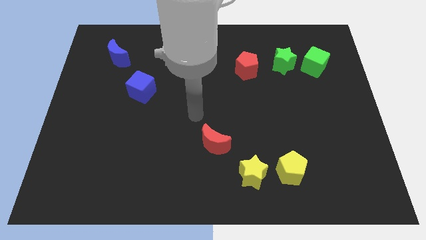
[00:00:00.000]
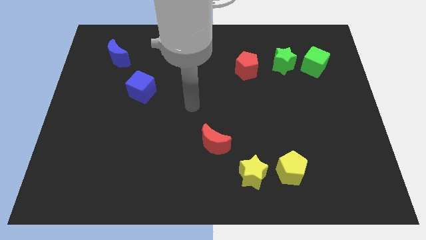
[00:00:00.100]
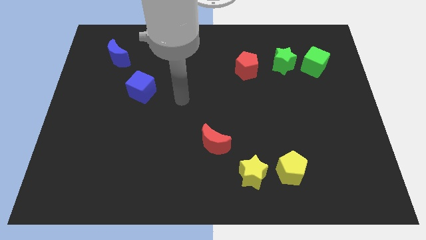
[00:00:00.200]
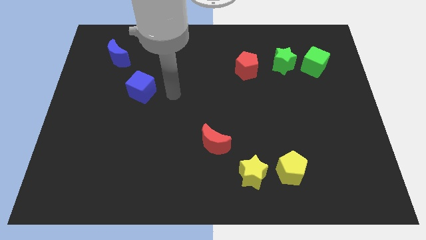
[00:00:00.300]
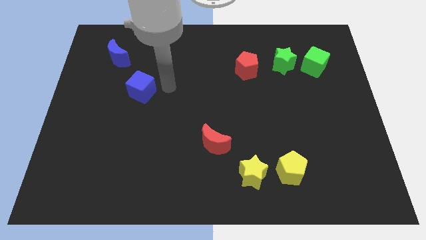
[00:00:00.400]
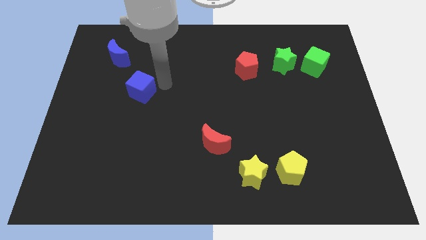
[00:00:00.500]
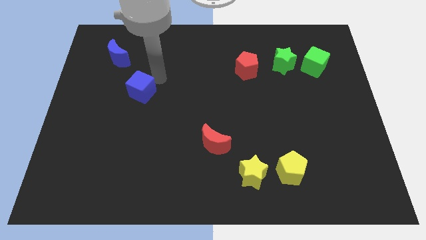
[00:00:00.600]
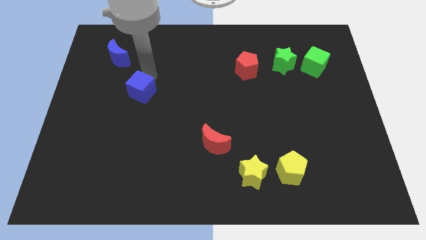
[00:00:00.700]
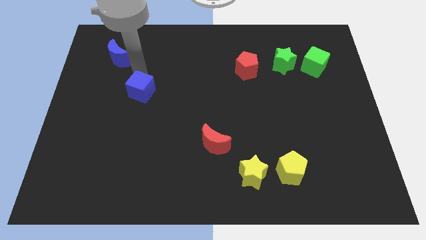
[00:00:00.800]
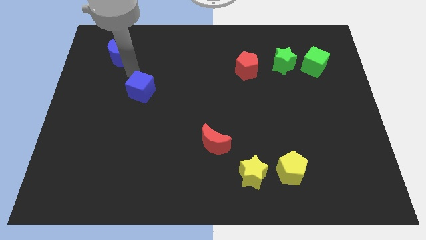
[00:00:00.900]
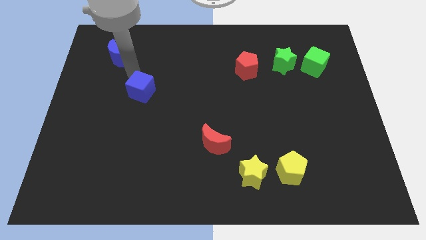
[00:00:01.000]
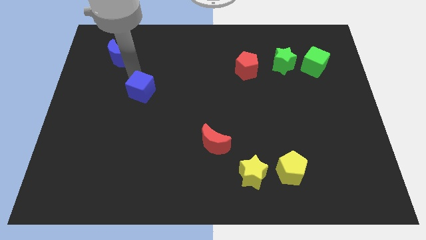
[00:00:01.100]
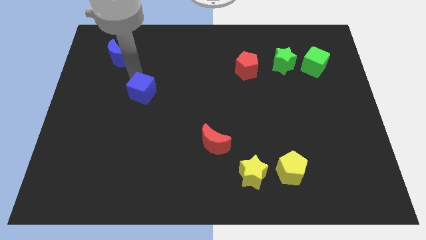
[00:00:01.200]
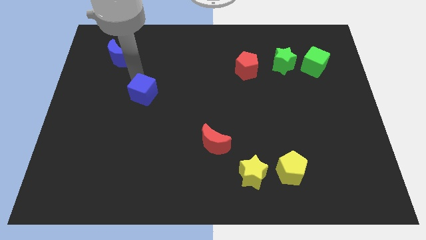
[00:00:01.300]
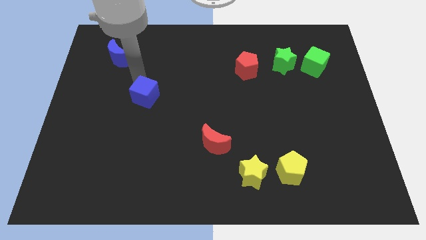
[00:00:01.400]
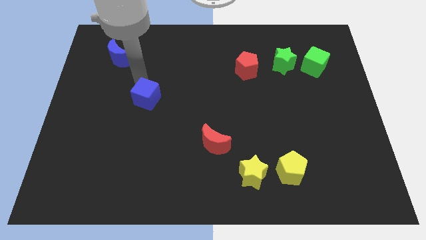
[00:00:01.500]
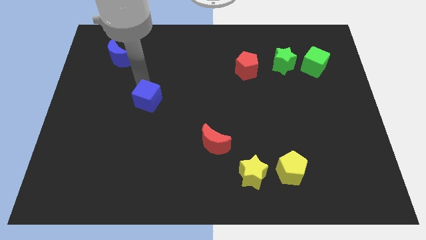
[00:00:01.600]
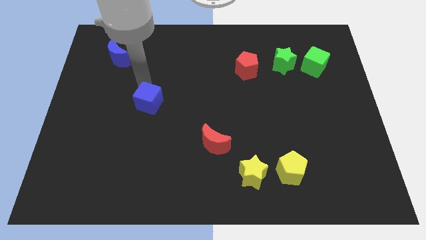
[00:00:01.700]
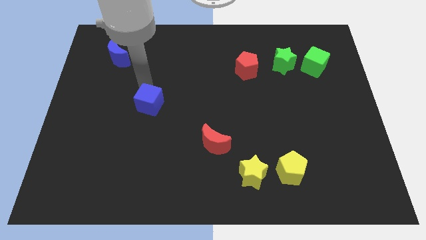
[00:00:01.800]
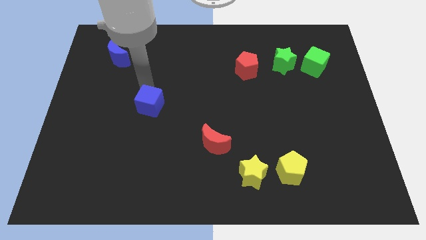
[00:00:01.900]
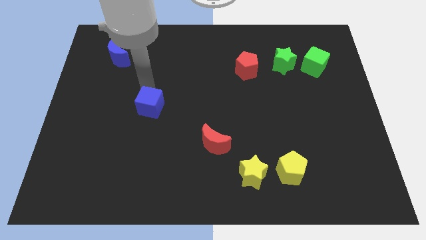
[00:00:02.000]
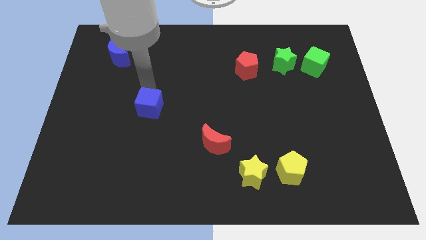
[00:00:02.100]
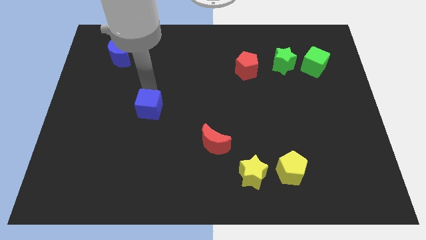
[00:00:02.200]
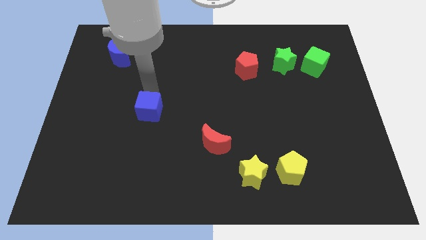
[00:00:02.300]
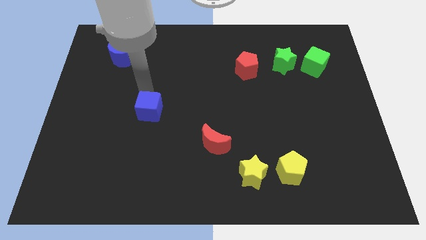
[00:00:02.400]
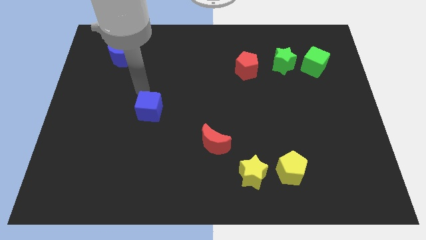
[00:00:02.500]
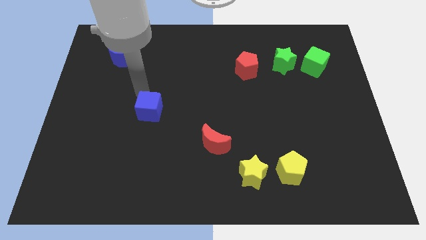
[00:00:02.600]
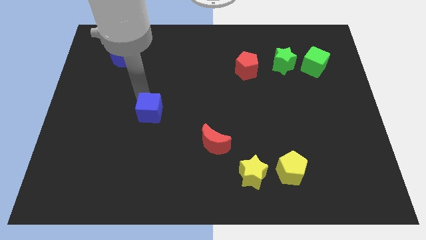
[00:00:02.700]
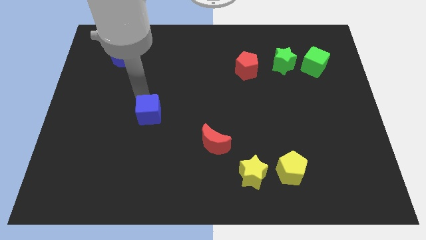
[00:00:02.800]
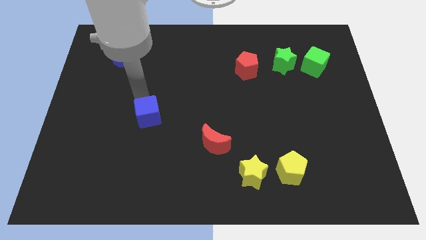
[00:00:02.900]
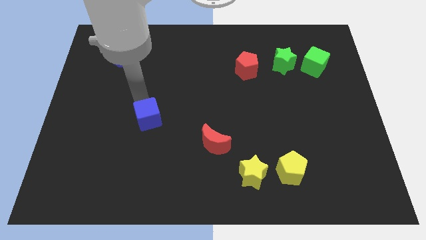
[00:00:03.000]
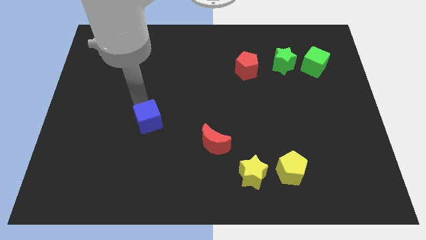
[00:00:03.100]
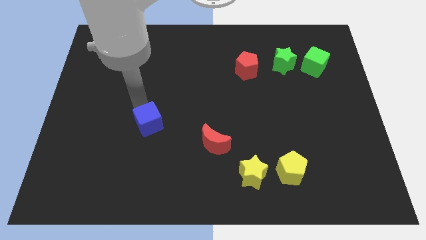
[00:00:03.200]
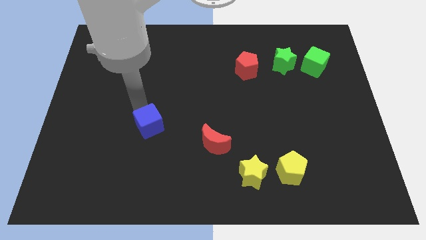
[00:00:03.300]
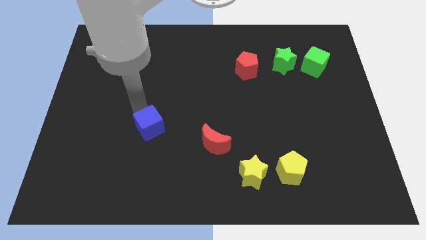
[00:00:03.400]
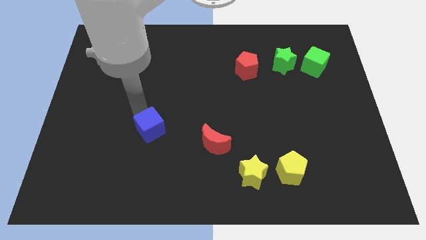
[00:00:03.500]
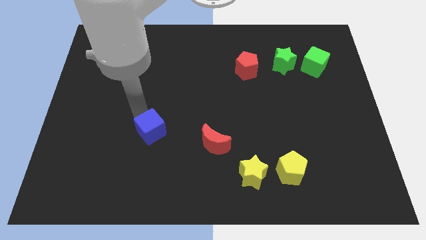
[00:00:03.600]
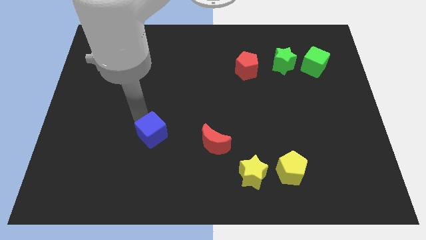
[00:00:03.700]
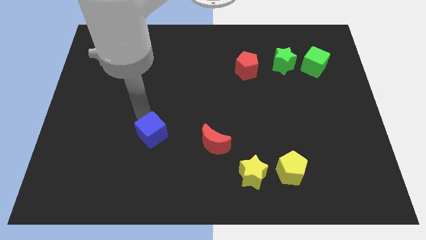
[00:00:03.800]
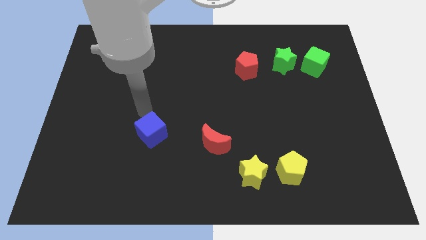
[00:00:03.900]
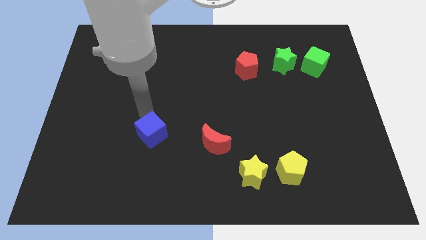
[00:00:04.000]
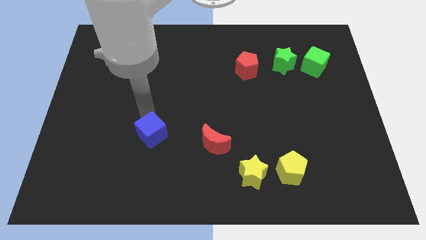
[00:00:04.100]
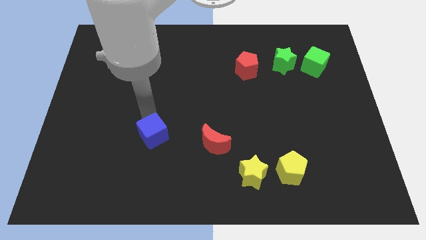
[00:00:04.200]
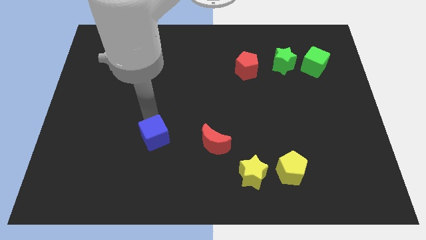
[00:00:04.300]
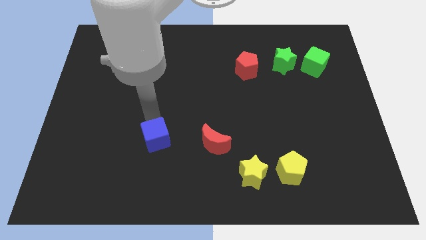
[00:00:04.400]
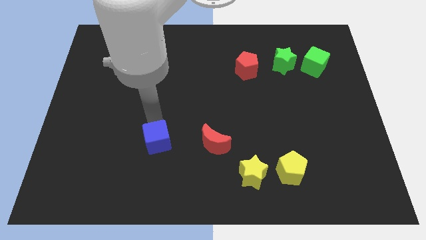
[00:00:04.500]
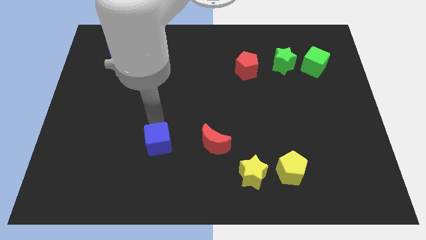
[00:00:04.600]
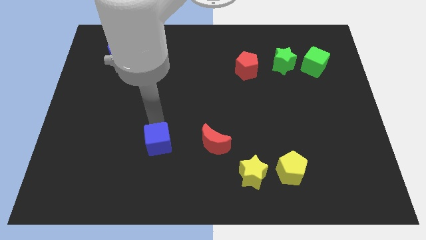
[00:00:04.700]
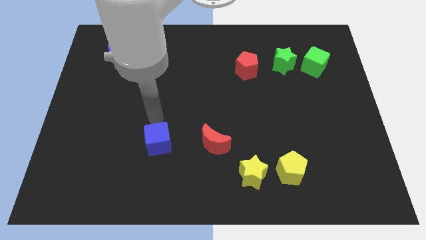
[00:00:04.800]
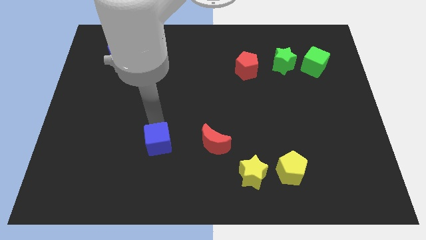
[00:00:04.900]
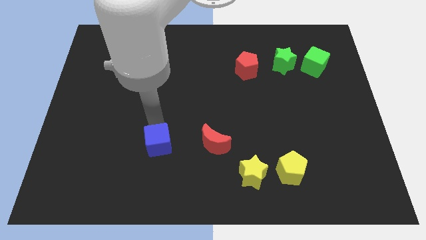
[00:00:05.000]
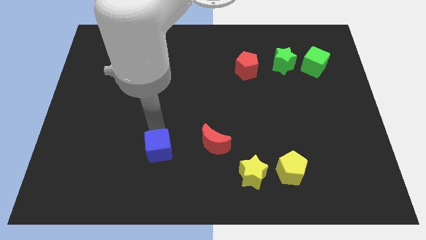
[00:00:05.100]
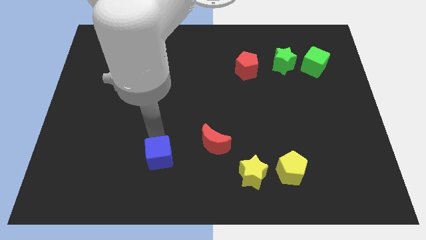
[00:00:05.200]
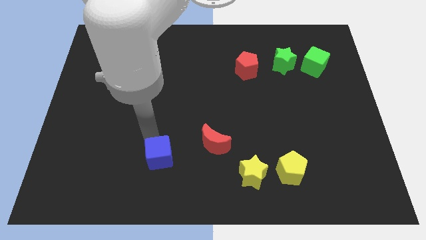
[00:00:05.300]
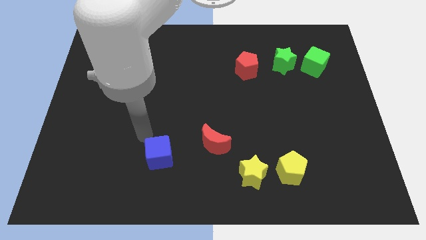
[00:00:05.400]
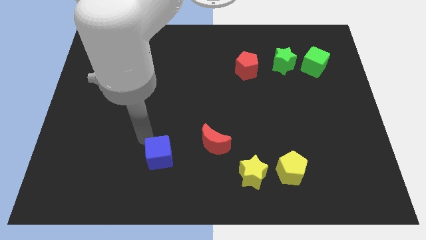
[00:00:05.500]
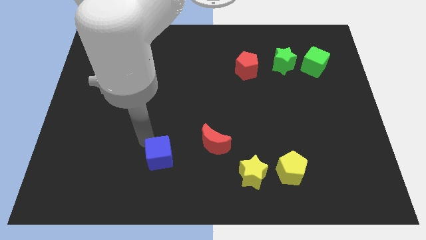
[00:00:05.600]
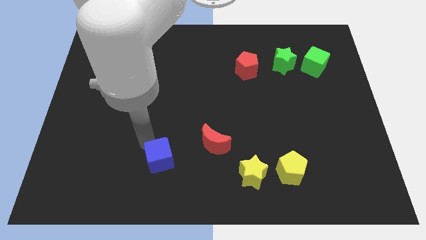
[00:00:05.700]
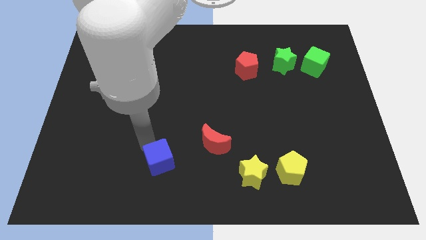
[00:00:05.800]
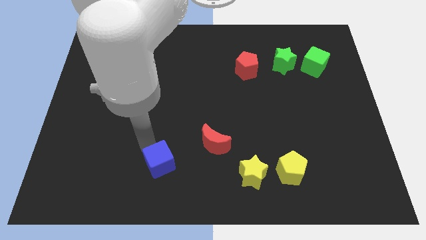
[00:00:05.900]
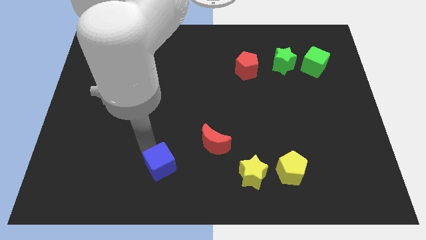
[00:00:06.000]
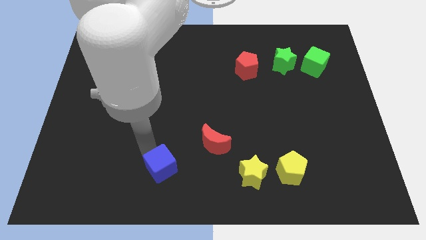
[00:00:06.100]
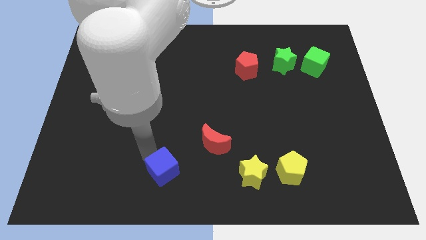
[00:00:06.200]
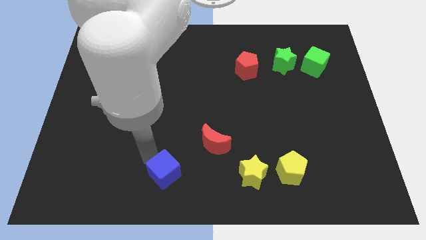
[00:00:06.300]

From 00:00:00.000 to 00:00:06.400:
slide the blue cube to the bottom
